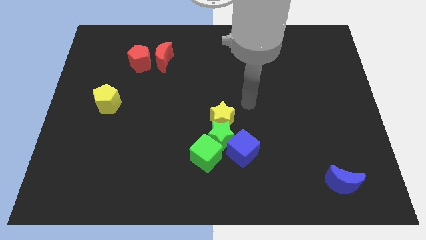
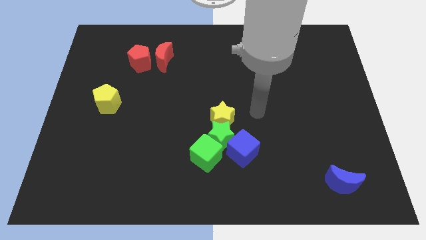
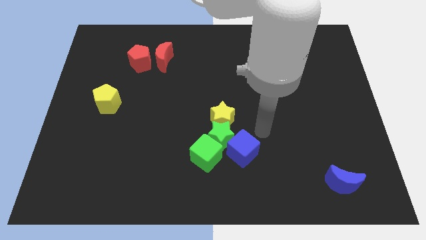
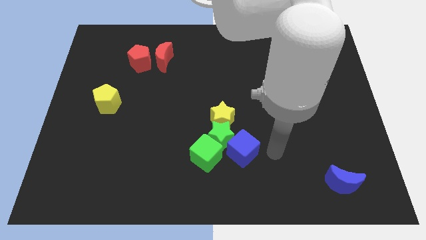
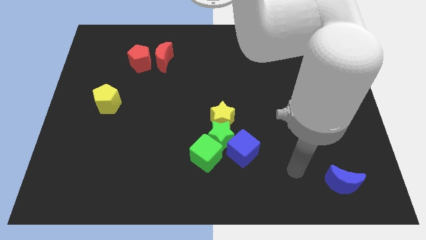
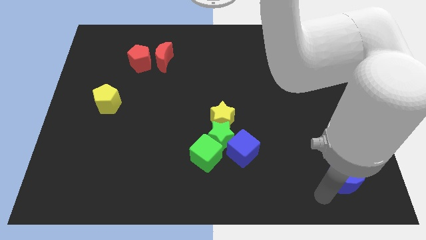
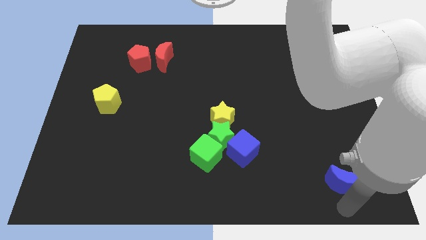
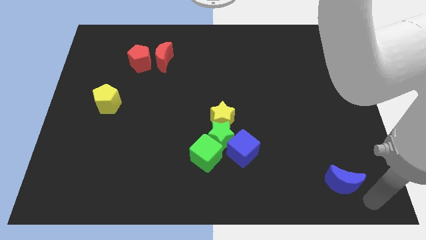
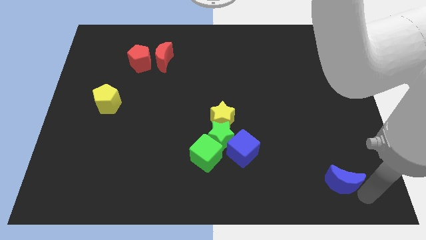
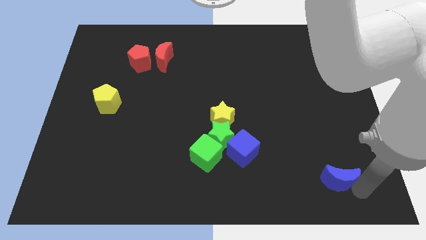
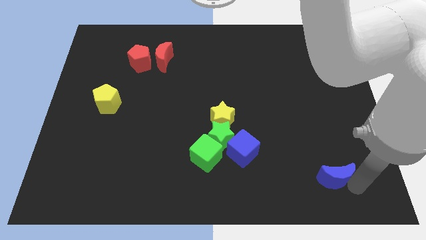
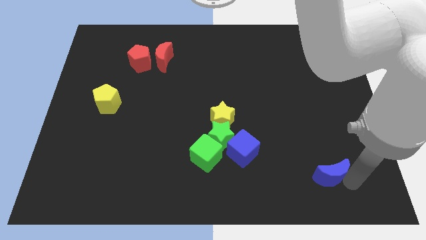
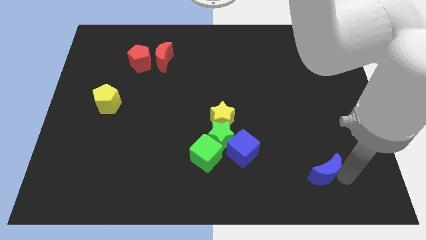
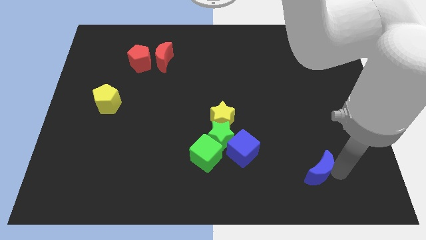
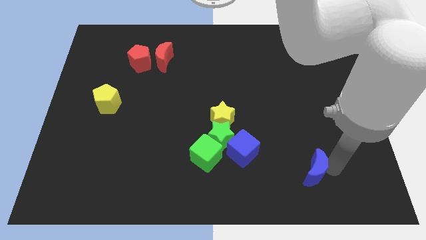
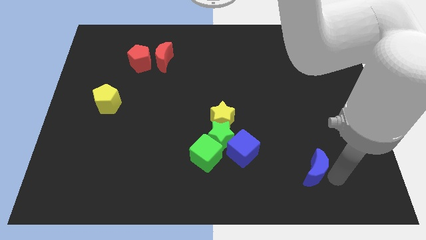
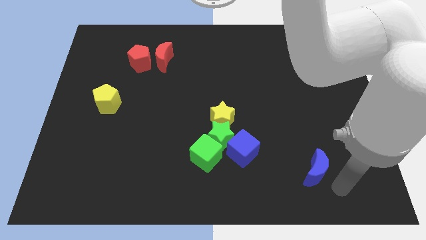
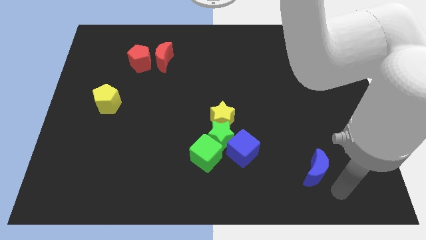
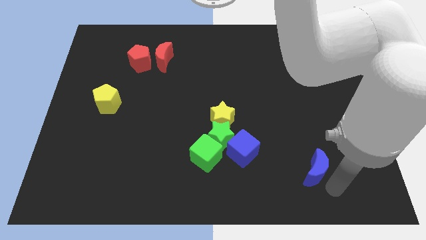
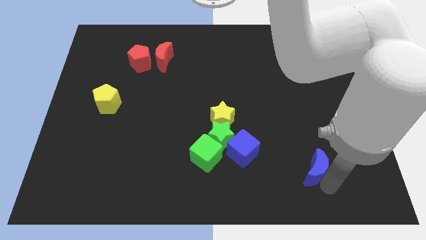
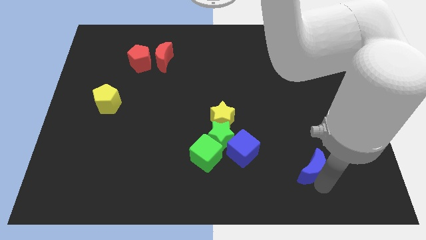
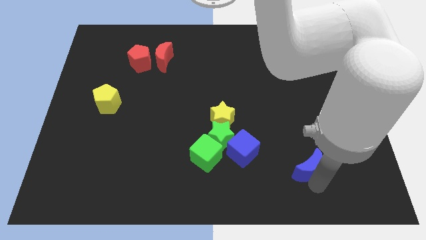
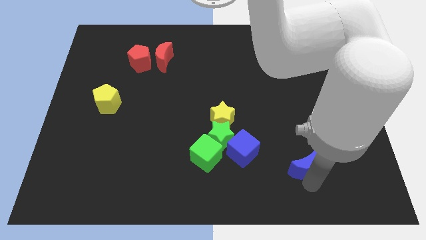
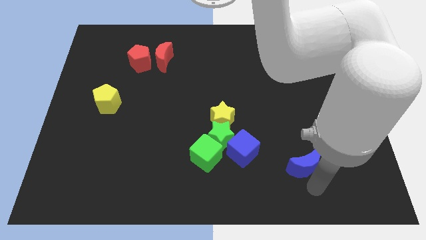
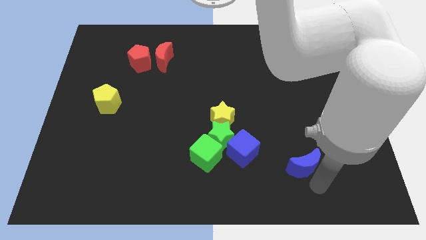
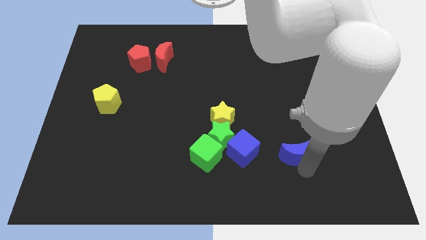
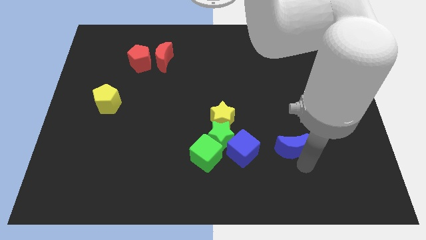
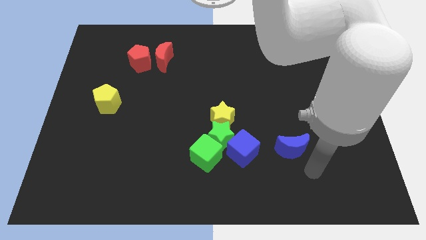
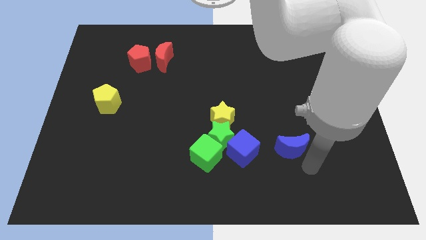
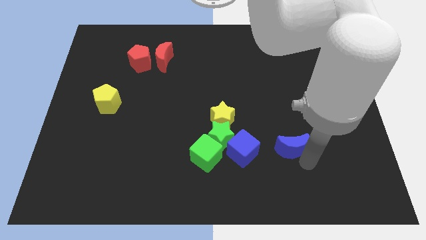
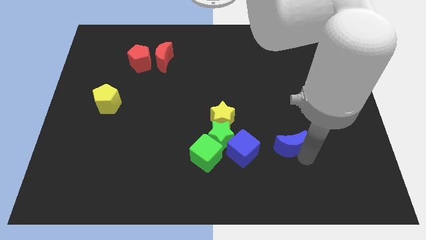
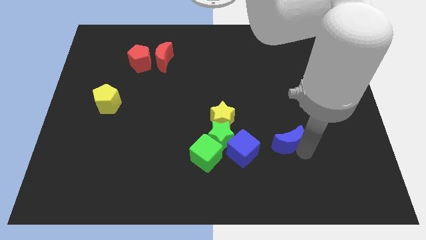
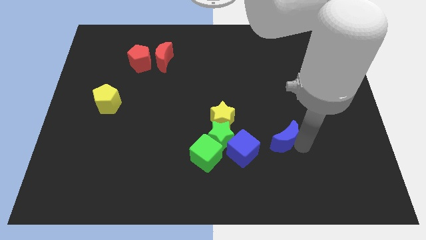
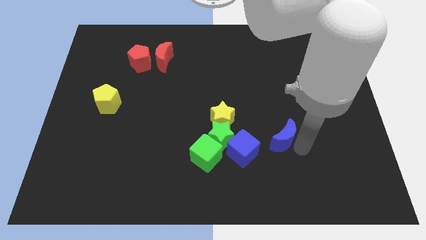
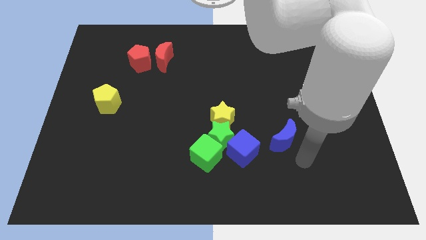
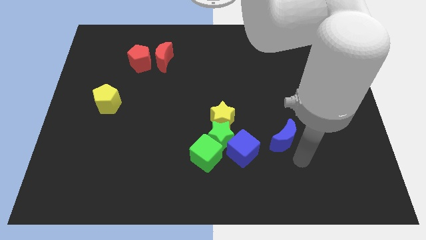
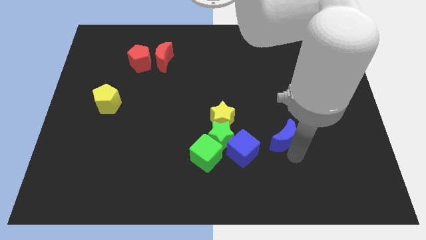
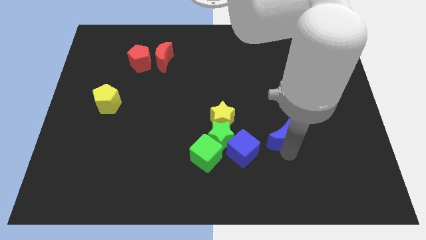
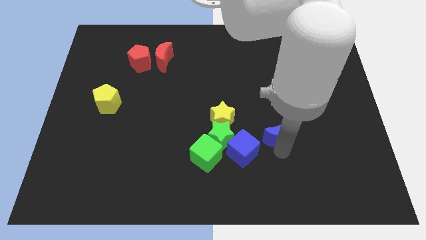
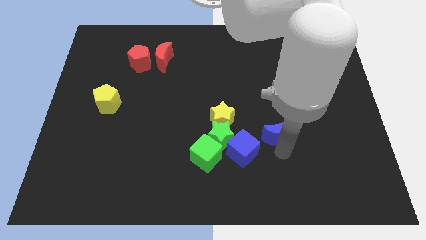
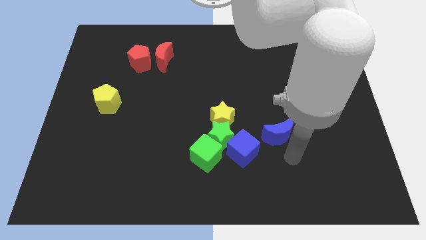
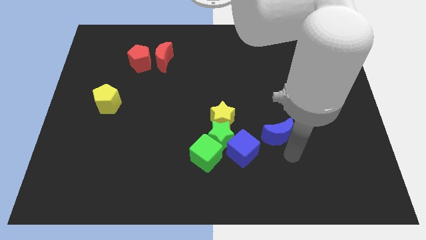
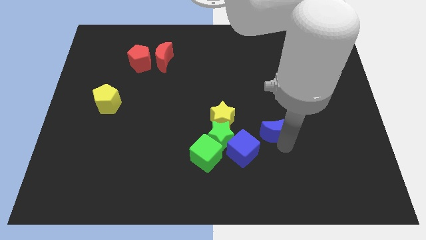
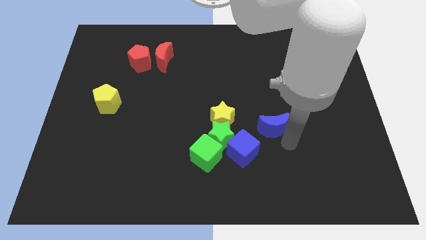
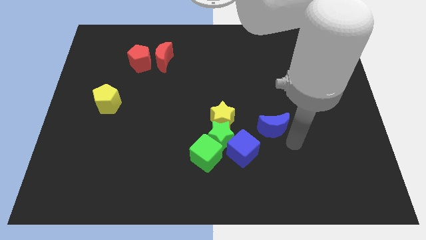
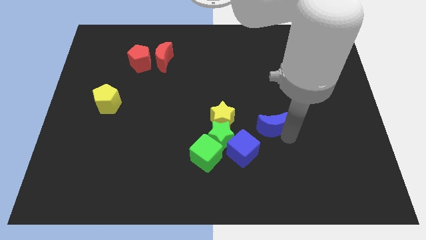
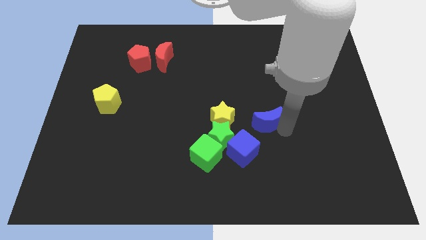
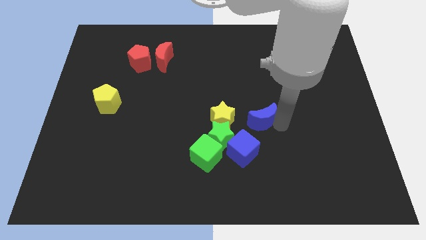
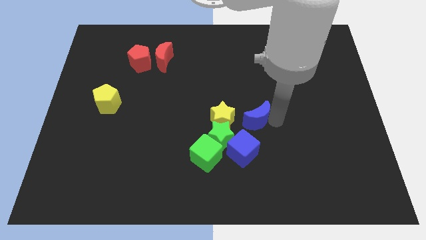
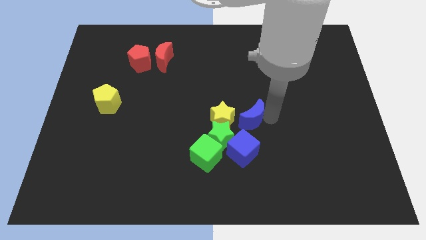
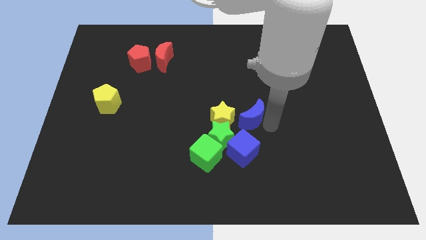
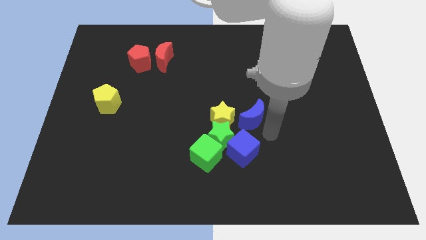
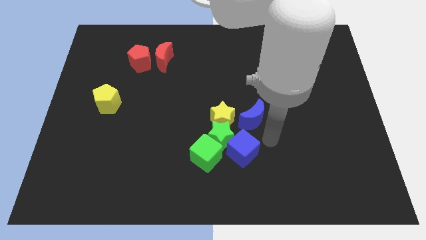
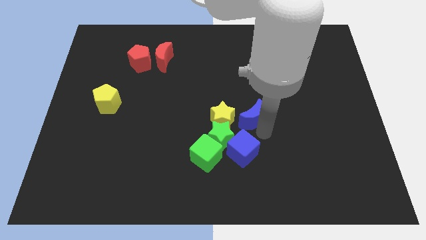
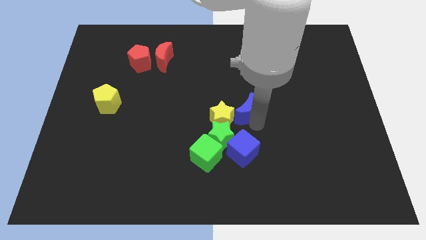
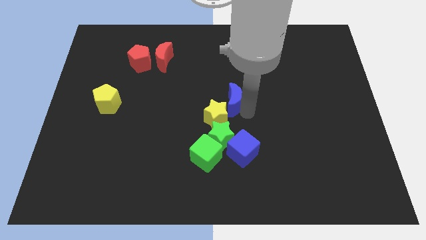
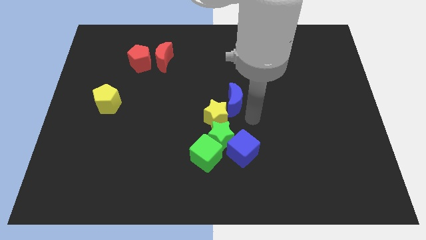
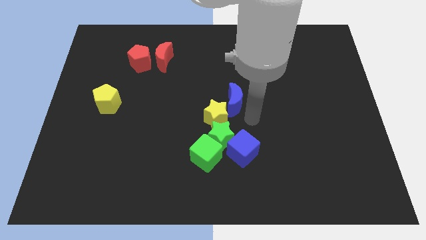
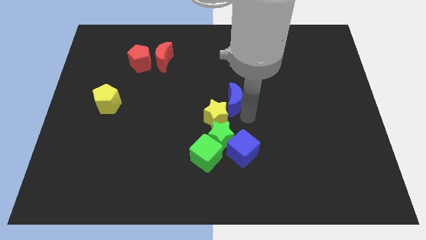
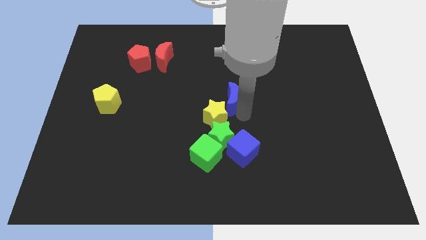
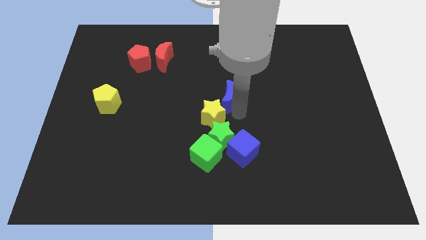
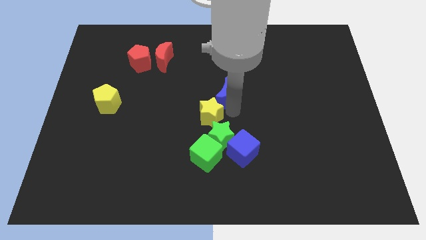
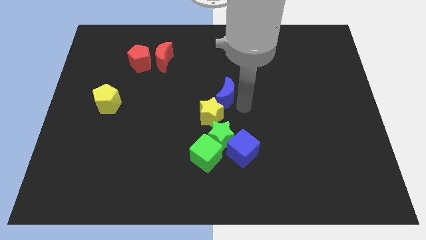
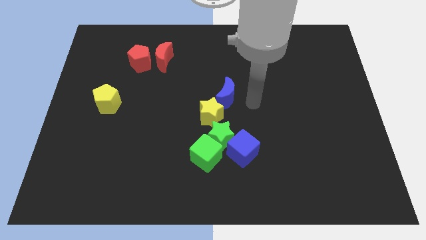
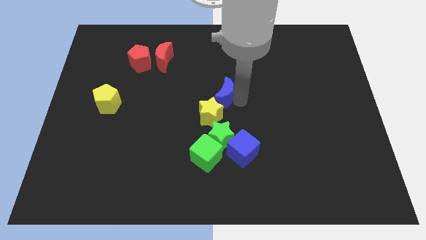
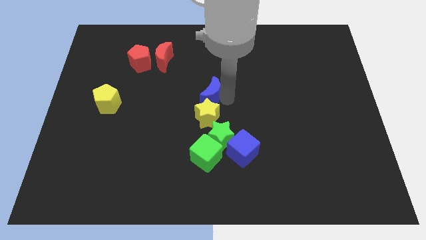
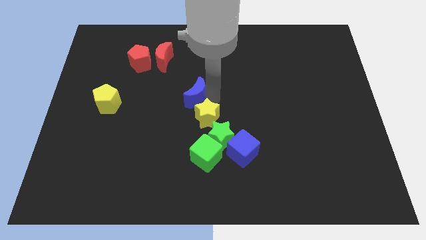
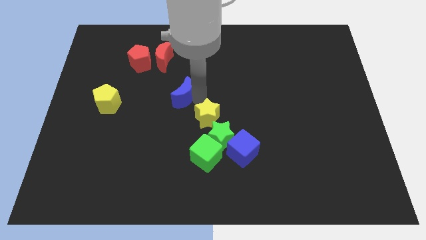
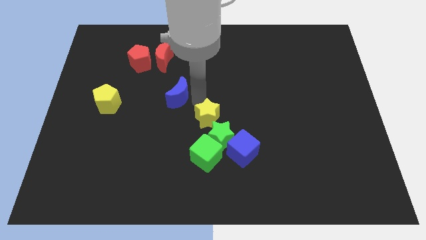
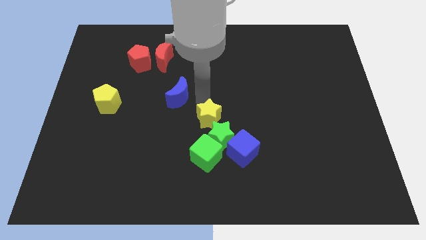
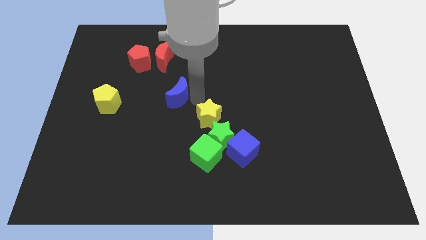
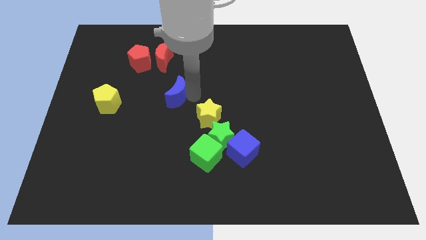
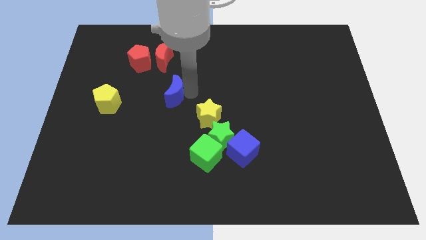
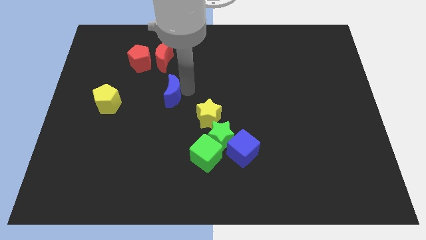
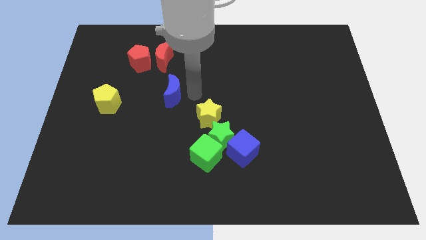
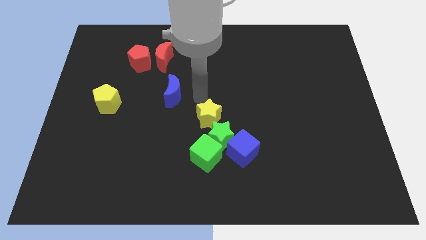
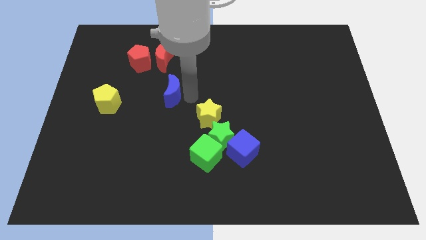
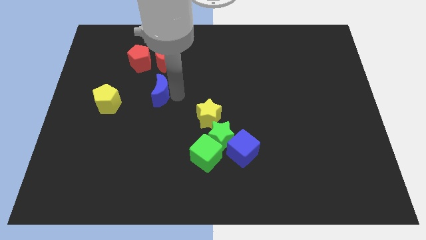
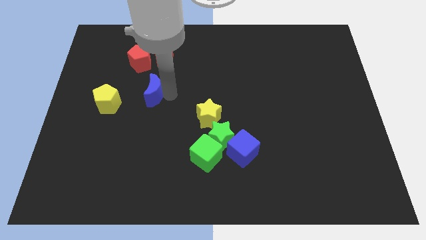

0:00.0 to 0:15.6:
slide the blue moon below the red pentagon
